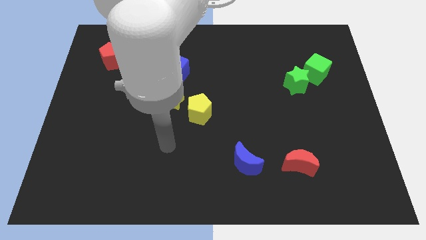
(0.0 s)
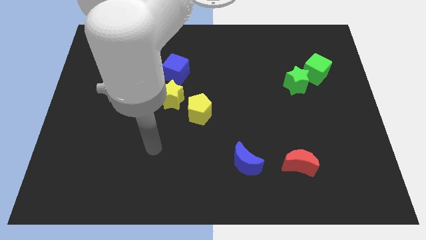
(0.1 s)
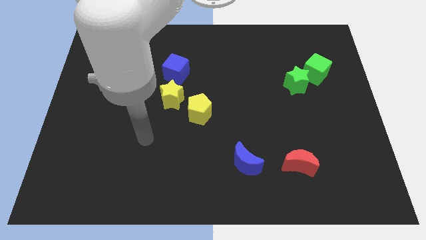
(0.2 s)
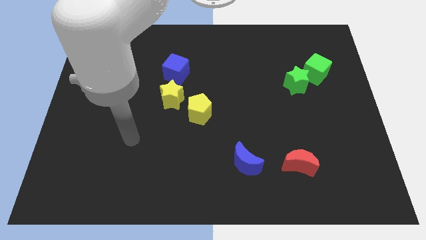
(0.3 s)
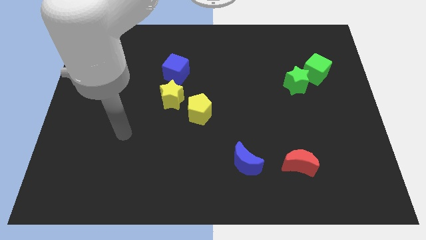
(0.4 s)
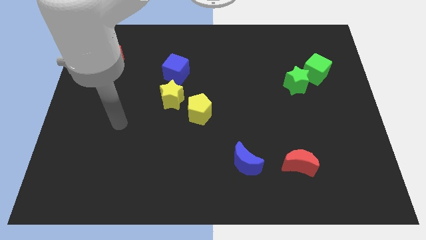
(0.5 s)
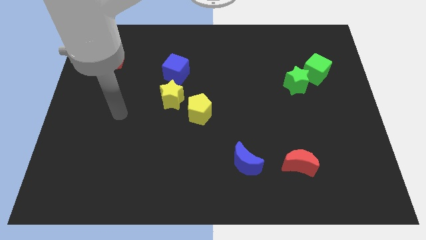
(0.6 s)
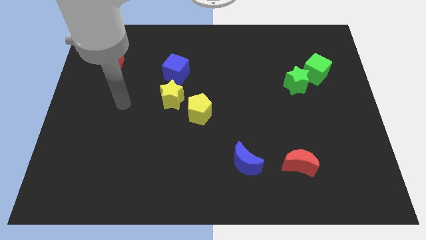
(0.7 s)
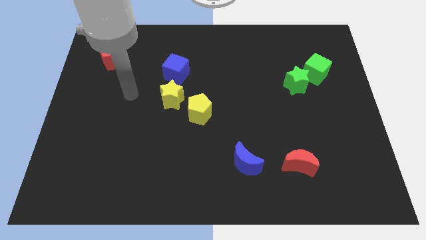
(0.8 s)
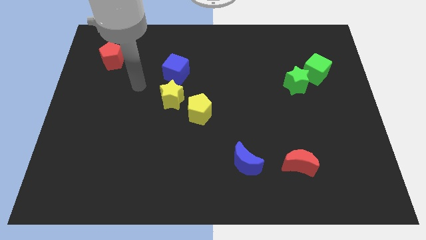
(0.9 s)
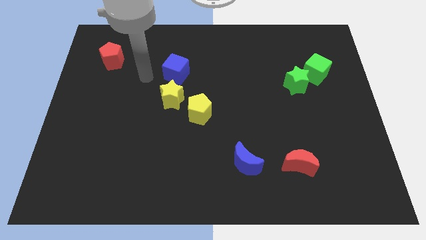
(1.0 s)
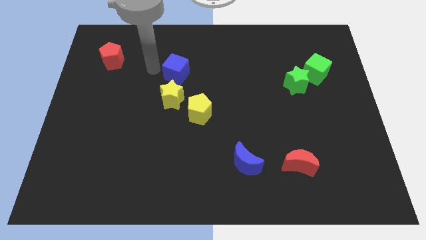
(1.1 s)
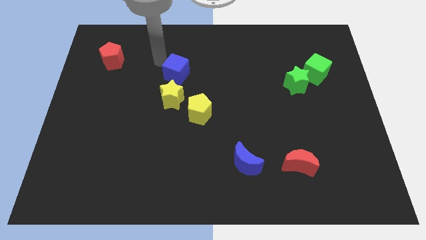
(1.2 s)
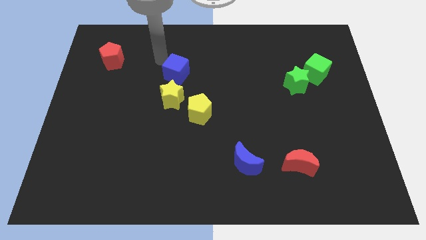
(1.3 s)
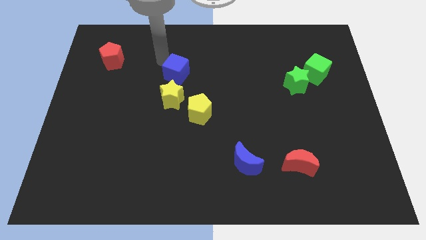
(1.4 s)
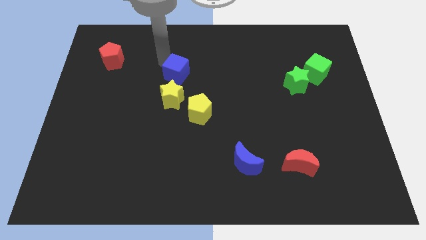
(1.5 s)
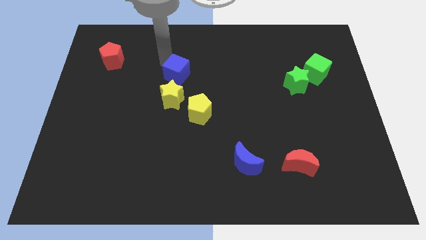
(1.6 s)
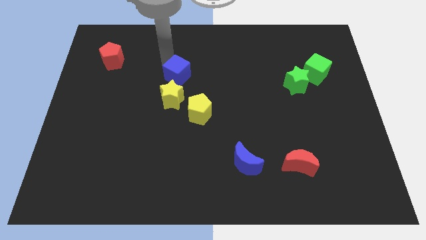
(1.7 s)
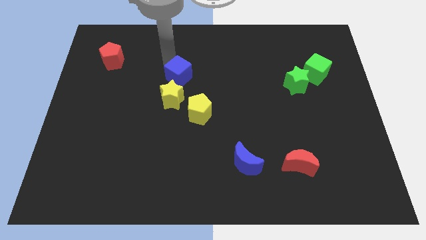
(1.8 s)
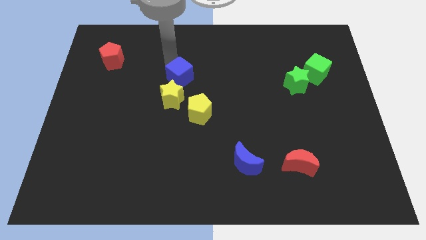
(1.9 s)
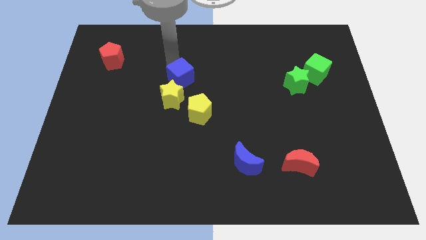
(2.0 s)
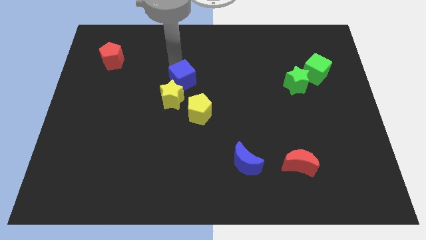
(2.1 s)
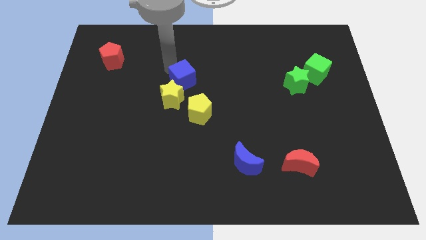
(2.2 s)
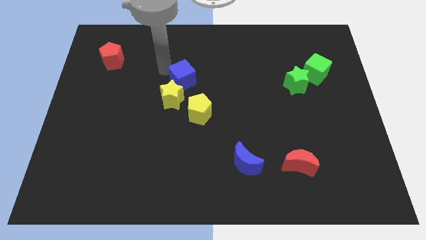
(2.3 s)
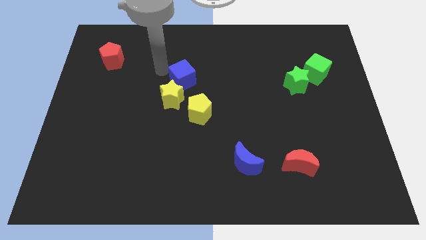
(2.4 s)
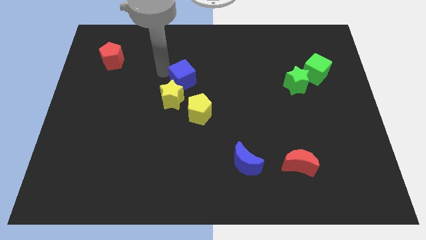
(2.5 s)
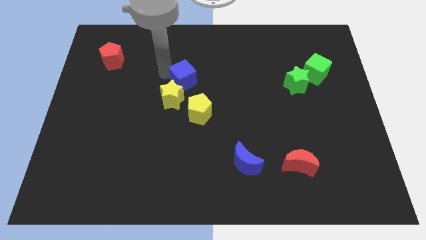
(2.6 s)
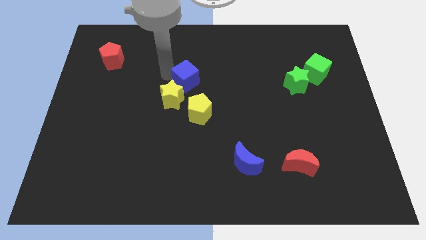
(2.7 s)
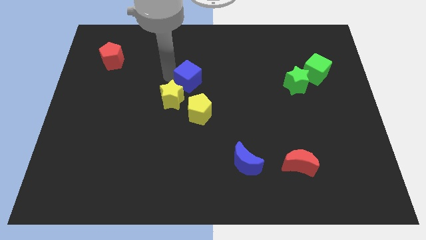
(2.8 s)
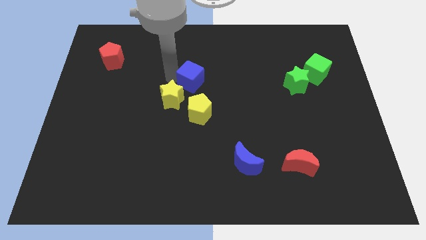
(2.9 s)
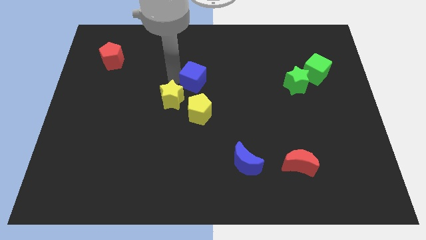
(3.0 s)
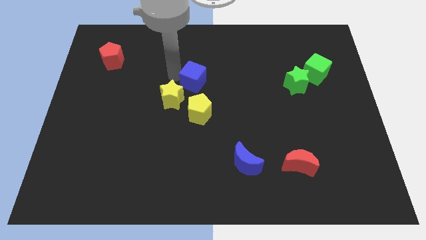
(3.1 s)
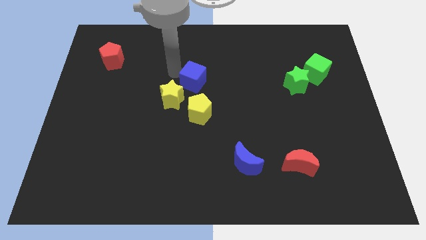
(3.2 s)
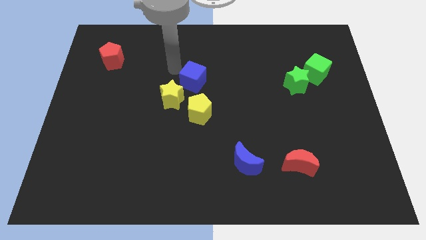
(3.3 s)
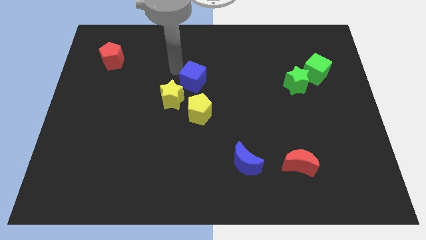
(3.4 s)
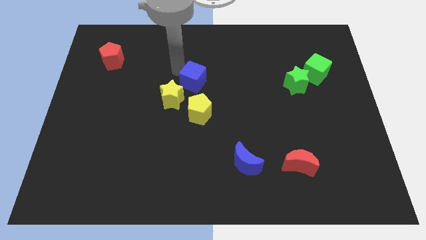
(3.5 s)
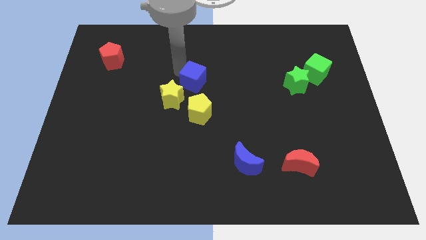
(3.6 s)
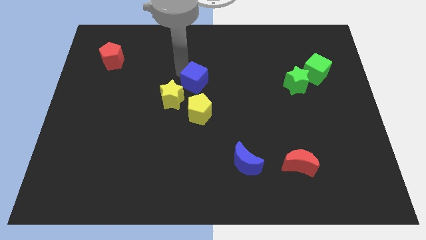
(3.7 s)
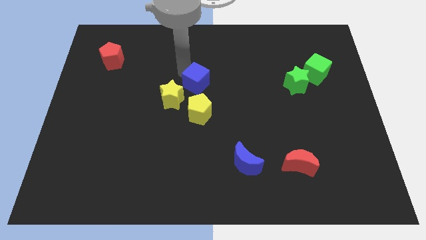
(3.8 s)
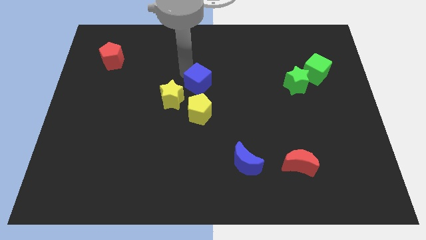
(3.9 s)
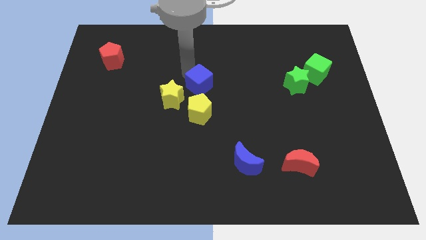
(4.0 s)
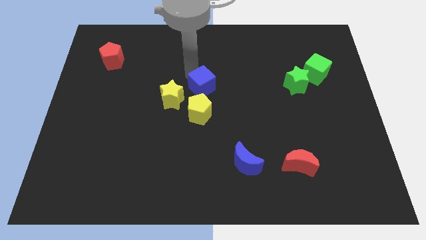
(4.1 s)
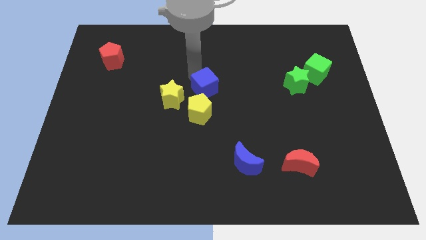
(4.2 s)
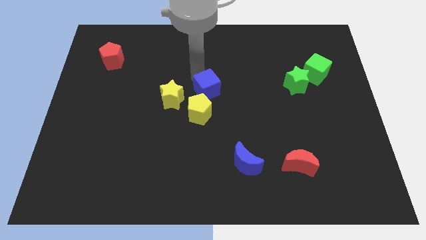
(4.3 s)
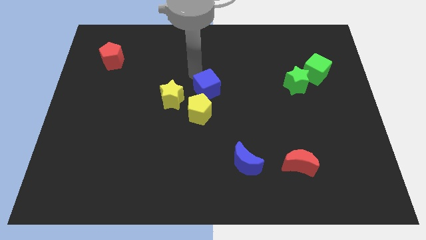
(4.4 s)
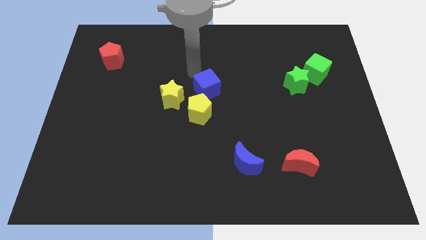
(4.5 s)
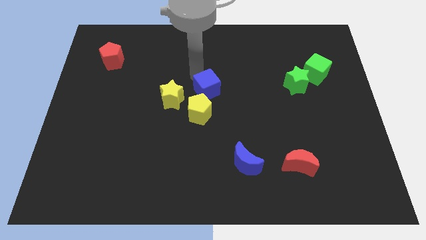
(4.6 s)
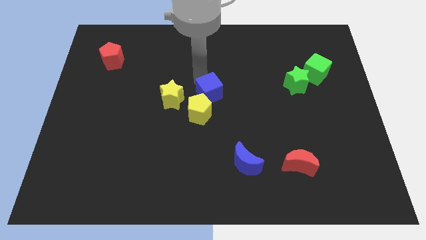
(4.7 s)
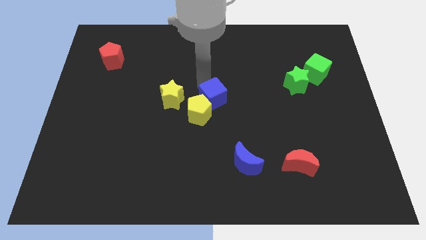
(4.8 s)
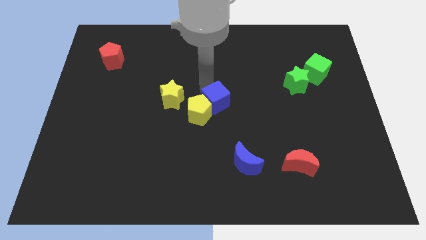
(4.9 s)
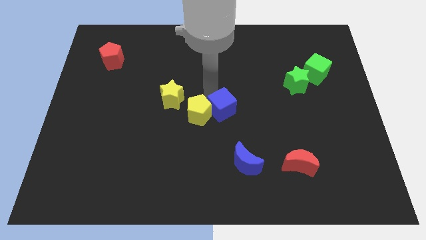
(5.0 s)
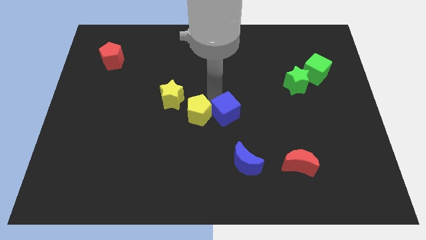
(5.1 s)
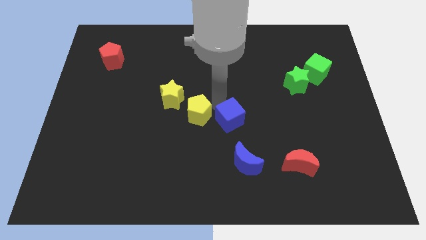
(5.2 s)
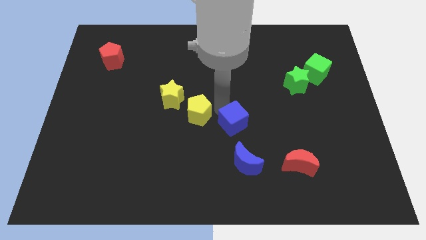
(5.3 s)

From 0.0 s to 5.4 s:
slide the blue cube down and then to the right

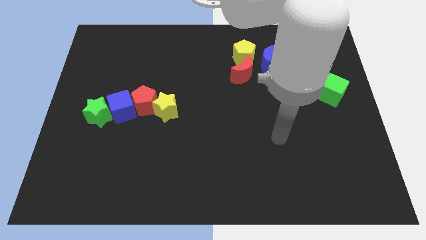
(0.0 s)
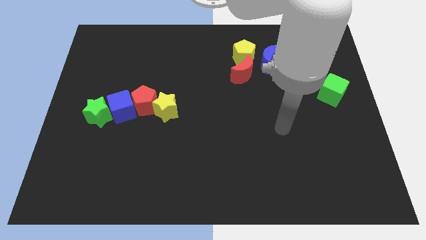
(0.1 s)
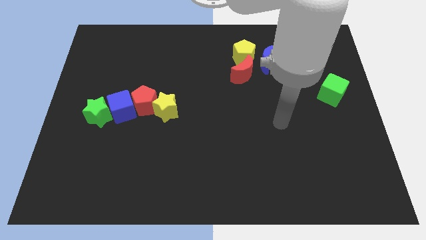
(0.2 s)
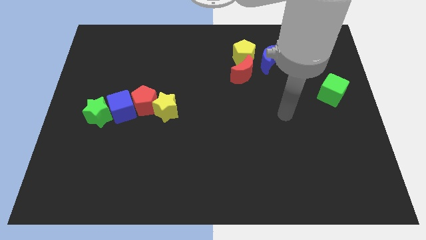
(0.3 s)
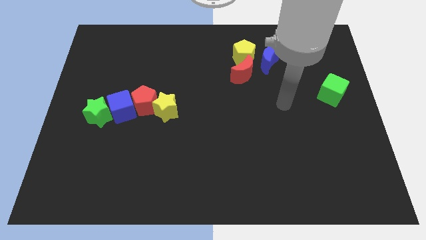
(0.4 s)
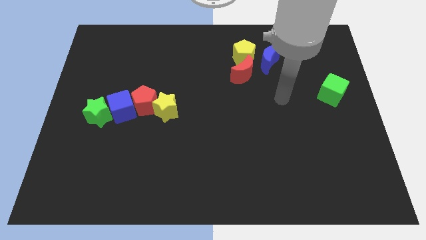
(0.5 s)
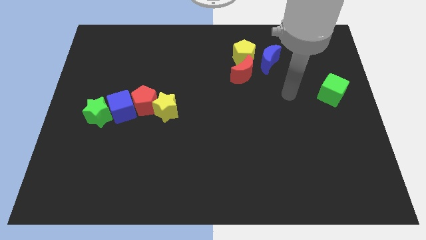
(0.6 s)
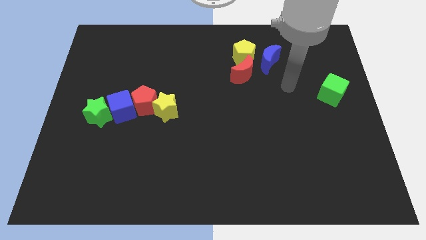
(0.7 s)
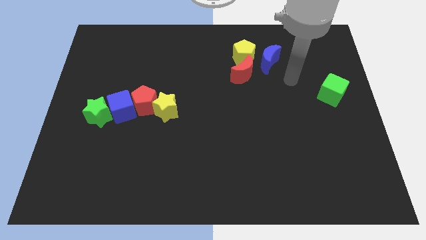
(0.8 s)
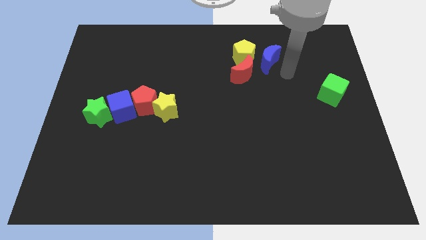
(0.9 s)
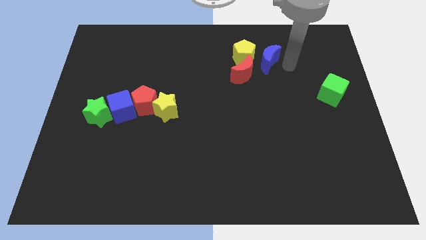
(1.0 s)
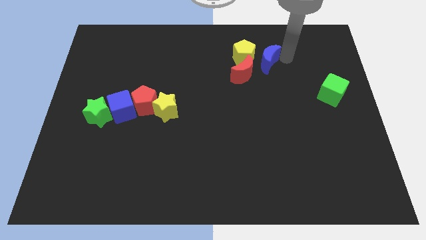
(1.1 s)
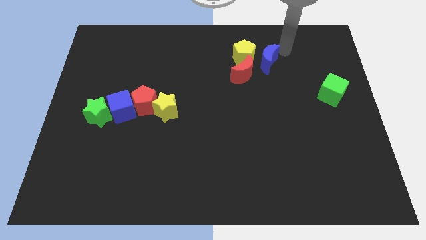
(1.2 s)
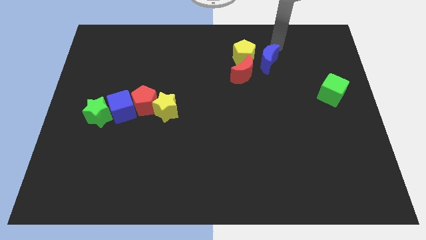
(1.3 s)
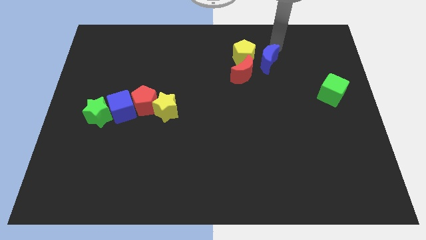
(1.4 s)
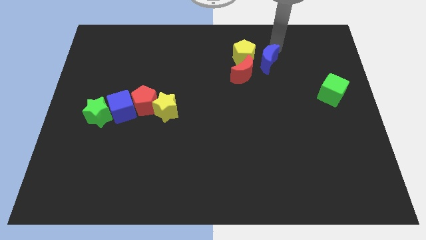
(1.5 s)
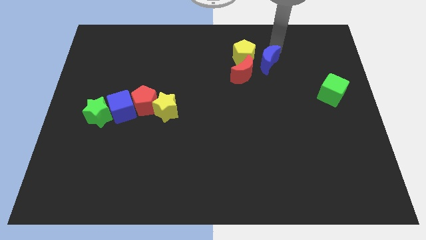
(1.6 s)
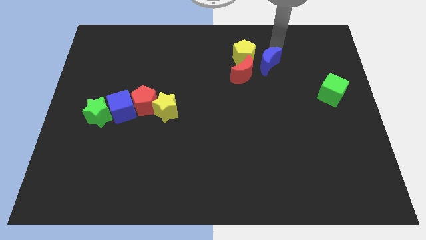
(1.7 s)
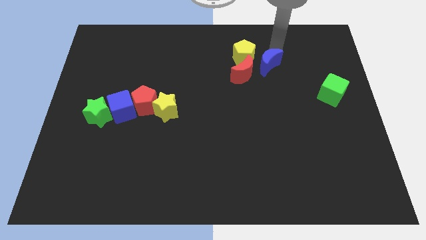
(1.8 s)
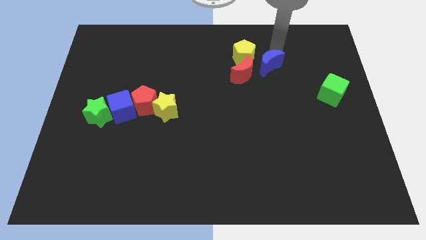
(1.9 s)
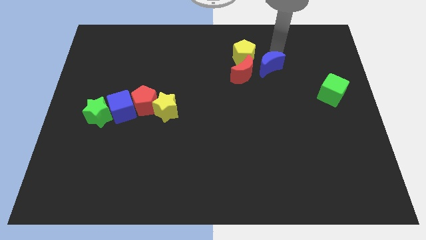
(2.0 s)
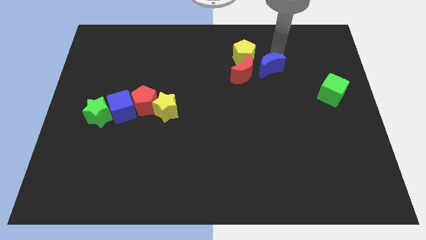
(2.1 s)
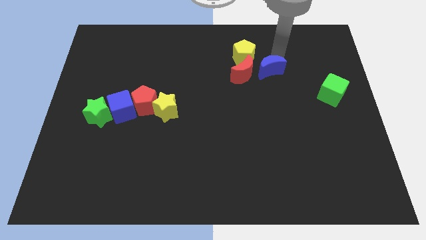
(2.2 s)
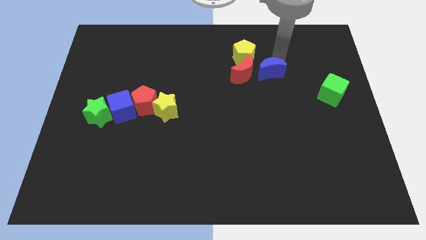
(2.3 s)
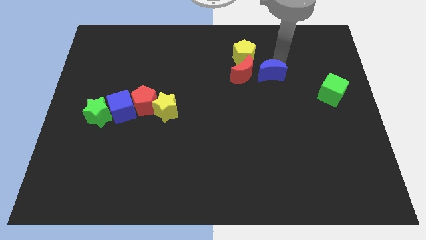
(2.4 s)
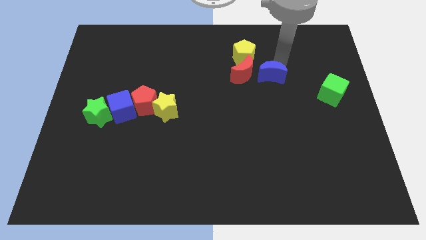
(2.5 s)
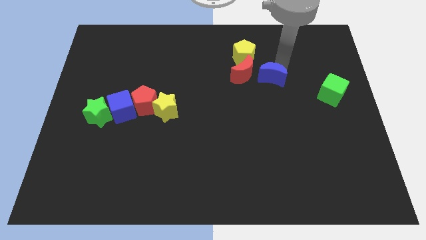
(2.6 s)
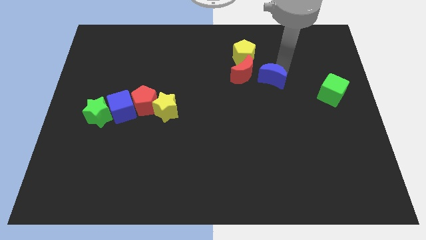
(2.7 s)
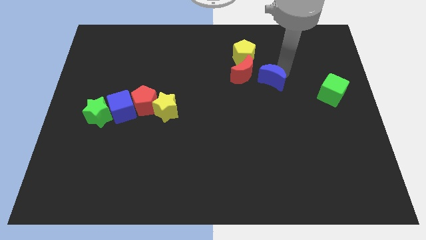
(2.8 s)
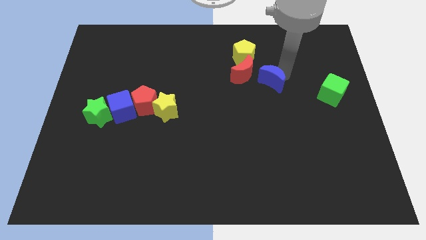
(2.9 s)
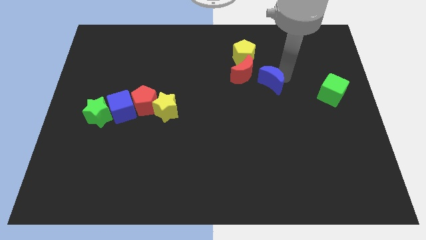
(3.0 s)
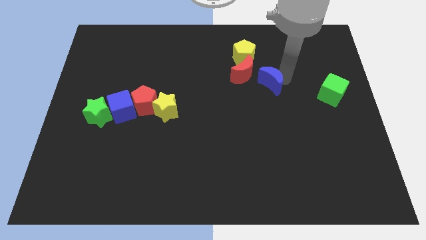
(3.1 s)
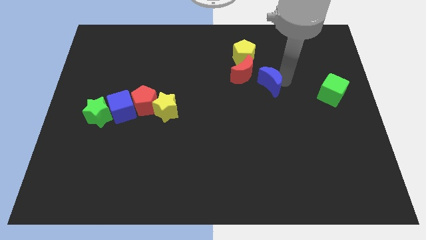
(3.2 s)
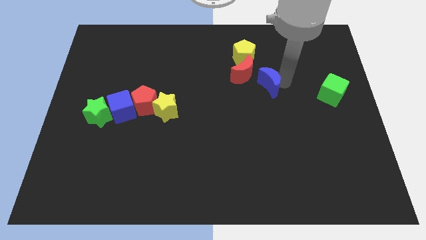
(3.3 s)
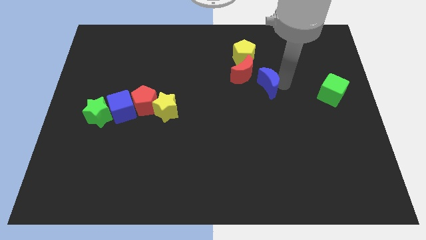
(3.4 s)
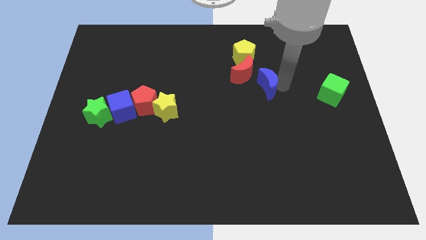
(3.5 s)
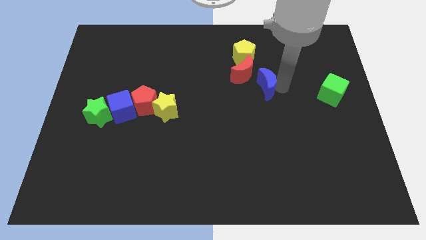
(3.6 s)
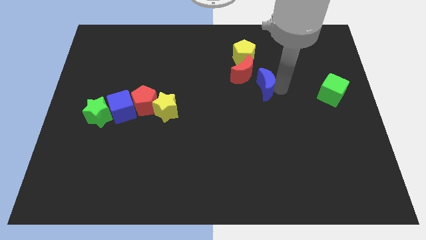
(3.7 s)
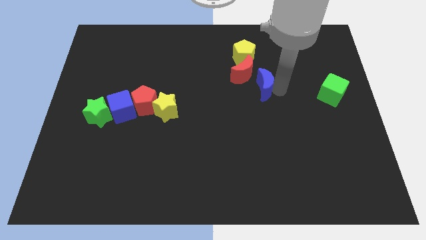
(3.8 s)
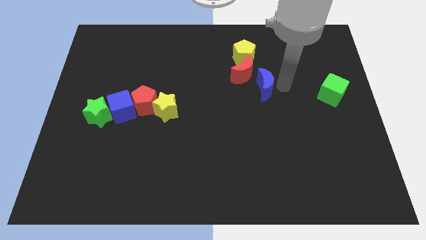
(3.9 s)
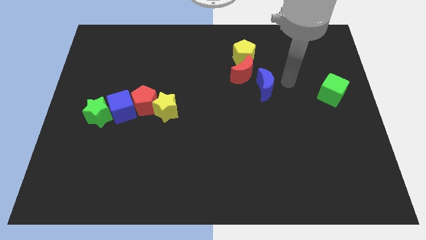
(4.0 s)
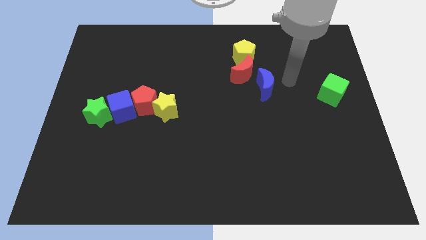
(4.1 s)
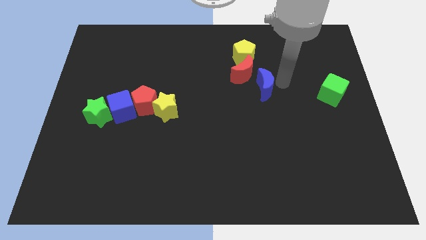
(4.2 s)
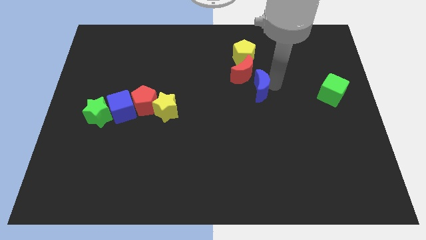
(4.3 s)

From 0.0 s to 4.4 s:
slide the blue moon downwards and to the left diagonally a little bit
